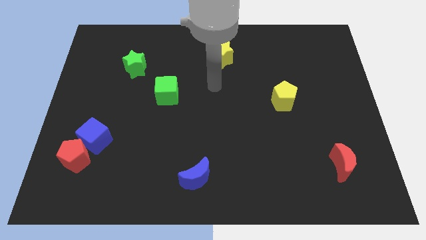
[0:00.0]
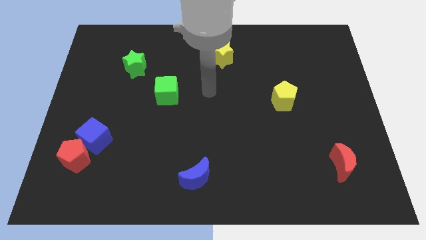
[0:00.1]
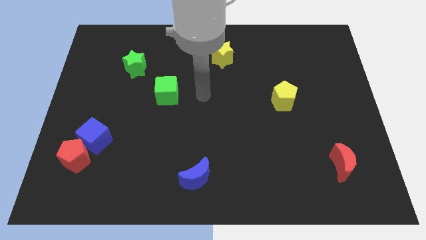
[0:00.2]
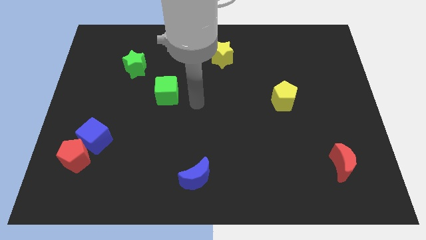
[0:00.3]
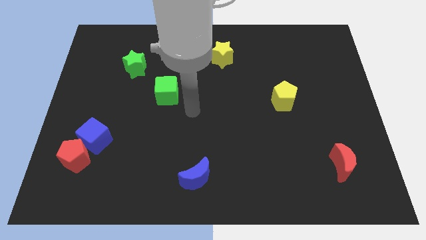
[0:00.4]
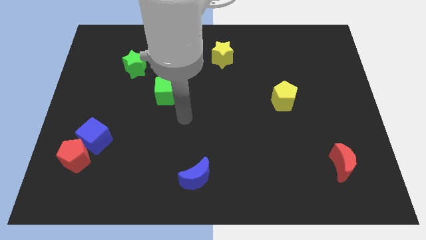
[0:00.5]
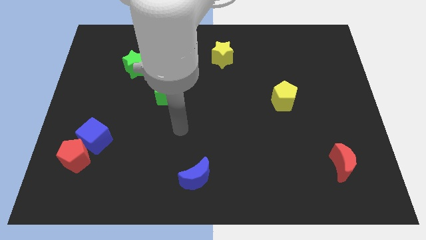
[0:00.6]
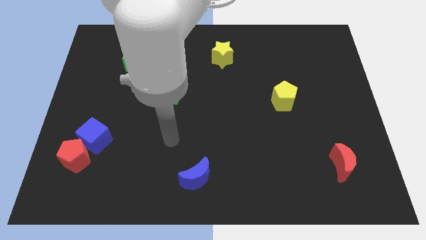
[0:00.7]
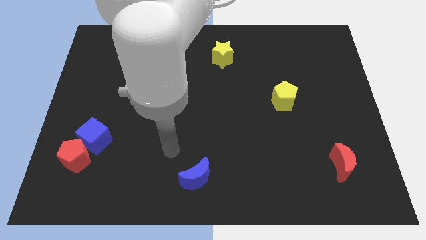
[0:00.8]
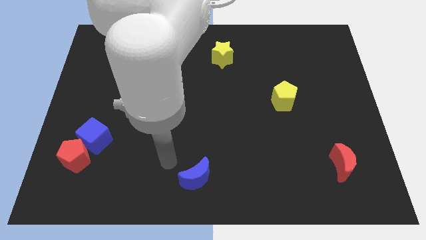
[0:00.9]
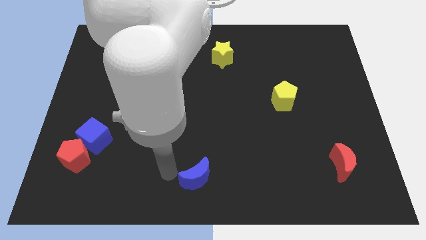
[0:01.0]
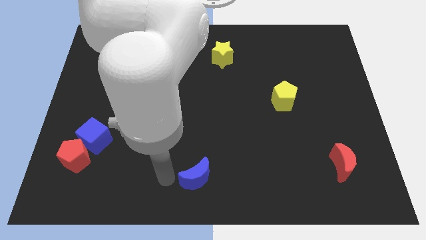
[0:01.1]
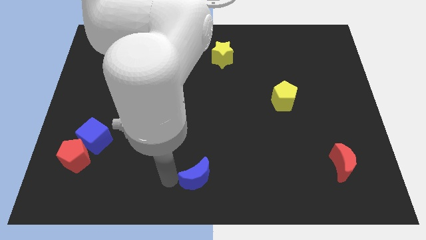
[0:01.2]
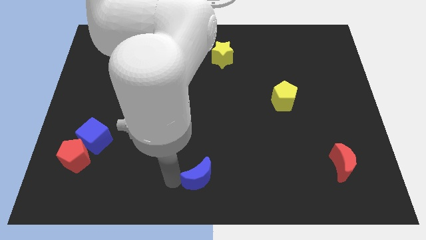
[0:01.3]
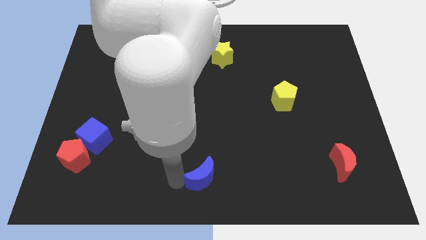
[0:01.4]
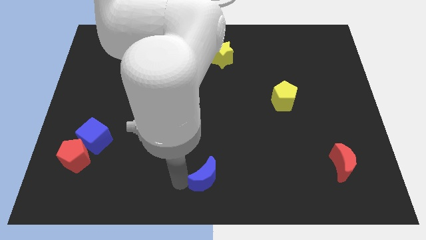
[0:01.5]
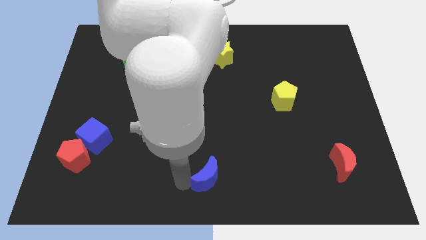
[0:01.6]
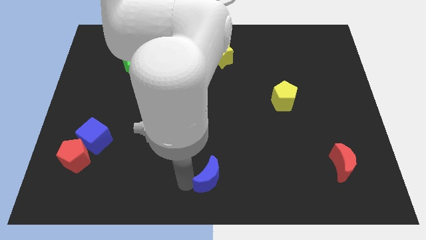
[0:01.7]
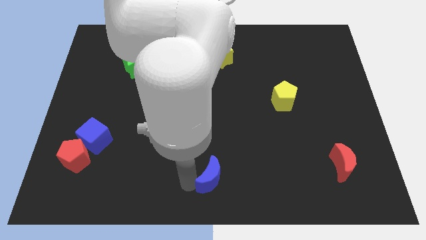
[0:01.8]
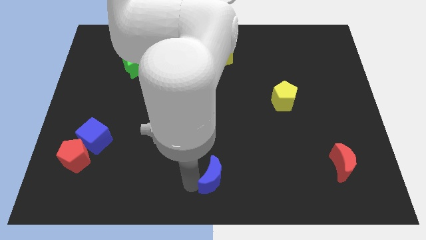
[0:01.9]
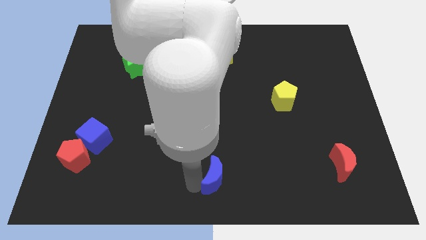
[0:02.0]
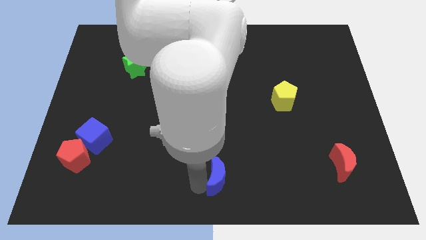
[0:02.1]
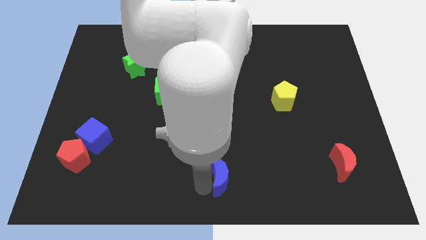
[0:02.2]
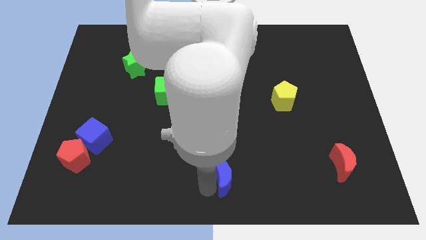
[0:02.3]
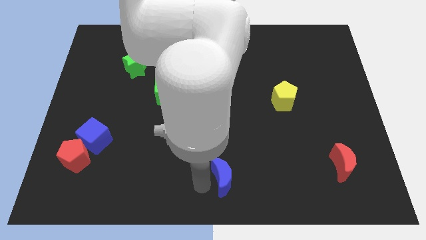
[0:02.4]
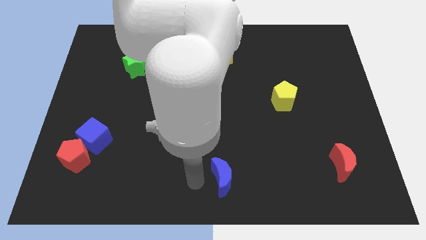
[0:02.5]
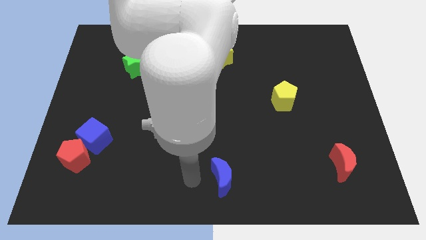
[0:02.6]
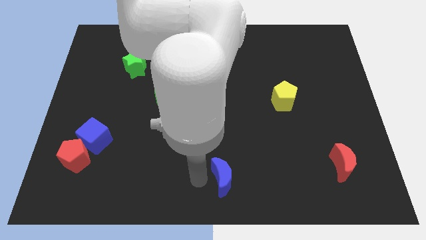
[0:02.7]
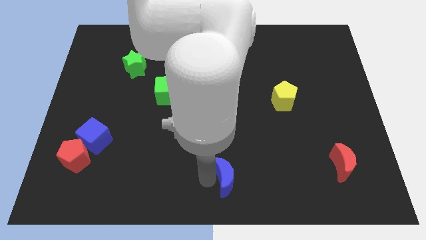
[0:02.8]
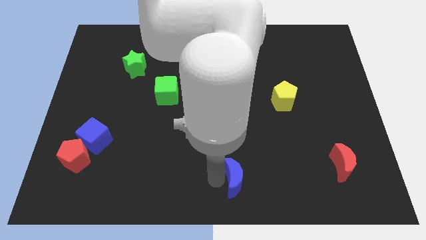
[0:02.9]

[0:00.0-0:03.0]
slightly slide the blue moon right

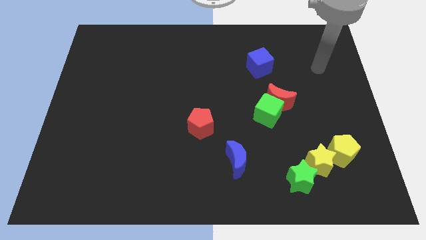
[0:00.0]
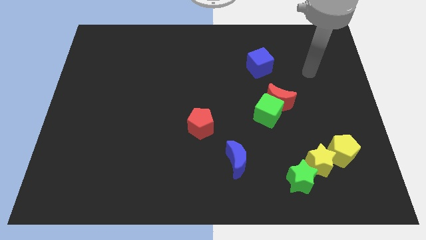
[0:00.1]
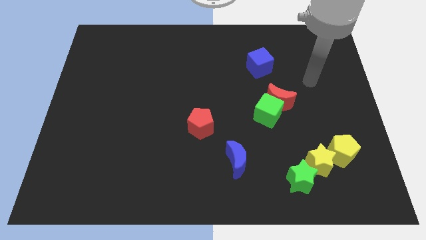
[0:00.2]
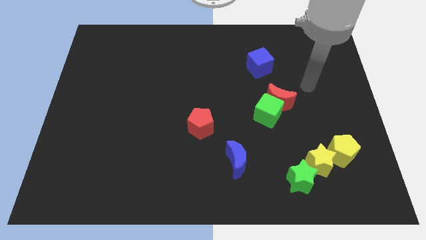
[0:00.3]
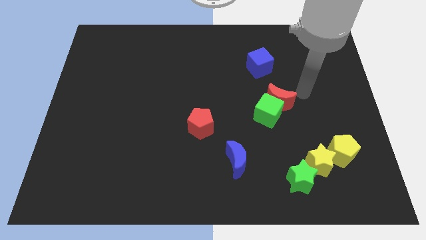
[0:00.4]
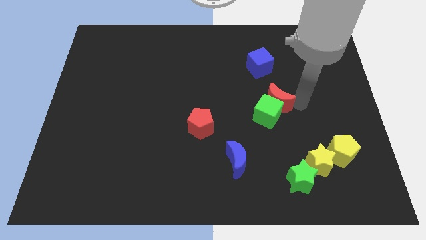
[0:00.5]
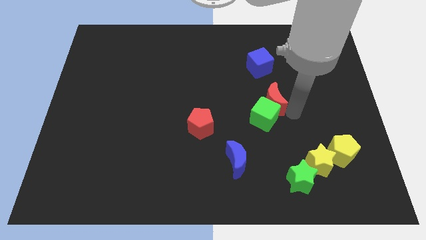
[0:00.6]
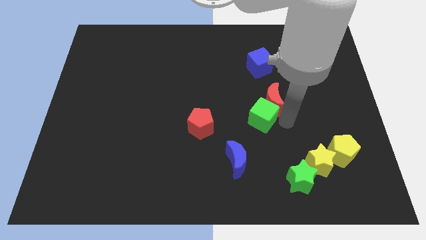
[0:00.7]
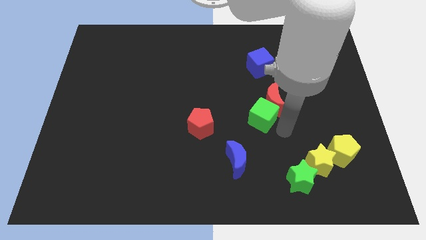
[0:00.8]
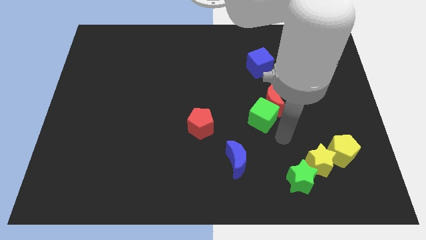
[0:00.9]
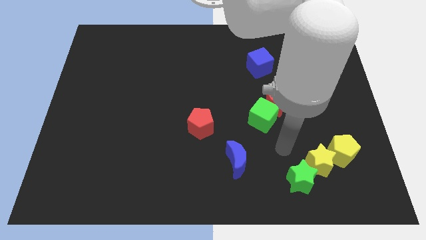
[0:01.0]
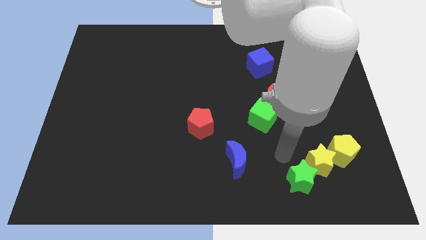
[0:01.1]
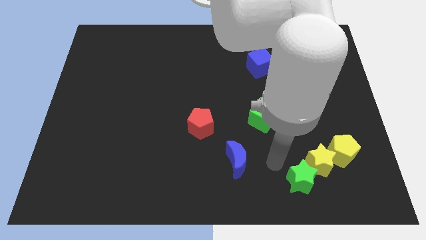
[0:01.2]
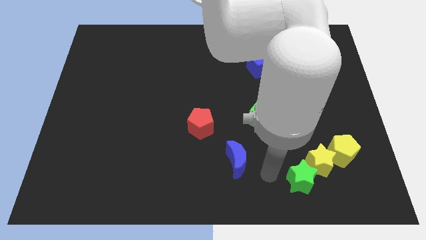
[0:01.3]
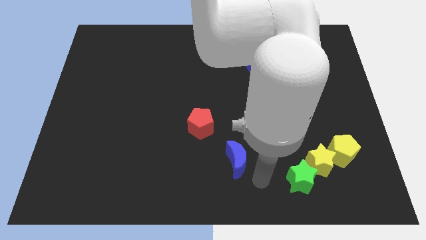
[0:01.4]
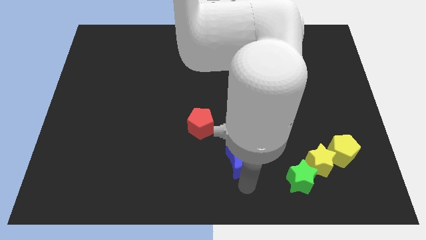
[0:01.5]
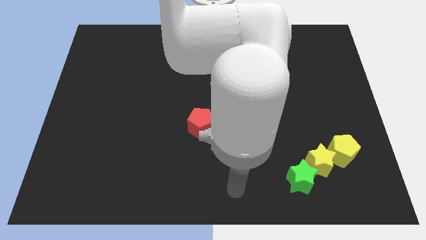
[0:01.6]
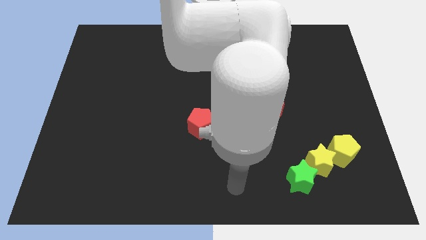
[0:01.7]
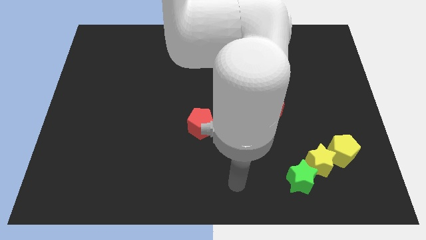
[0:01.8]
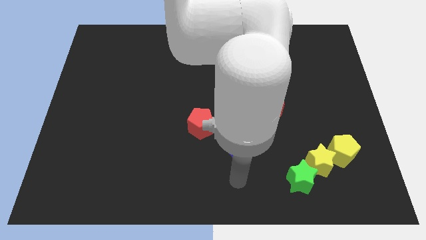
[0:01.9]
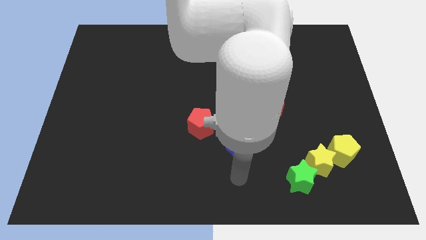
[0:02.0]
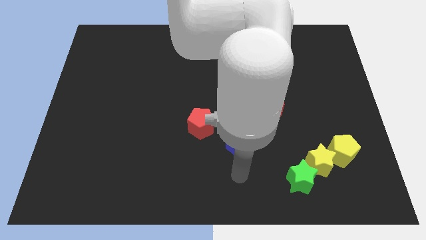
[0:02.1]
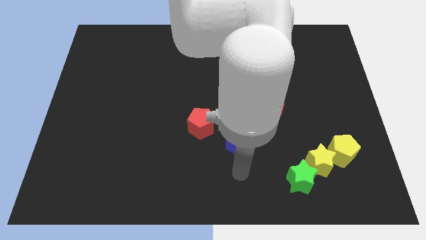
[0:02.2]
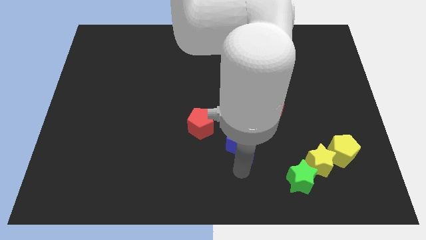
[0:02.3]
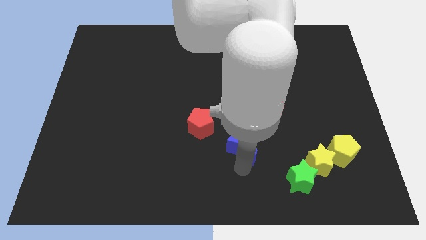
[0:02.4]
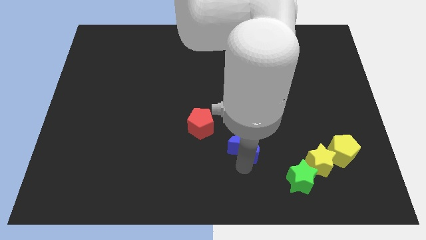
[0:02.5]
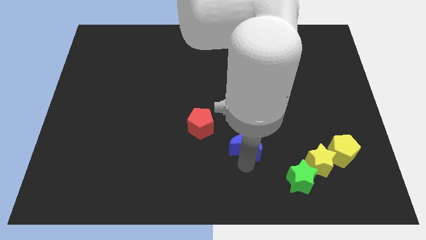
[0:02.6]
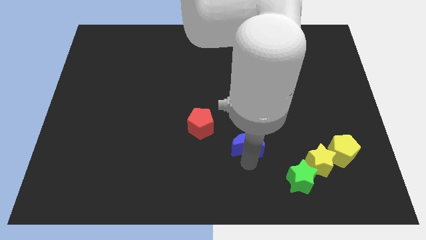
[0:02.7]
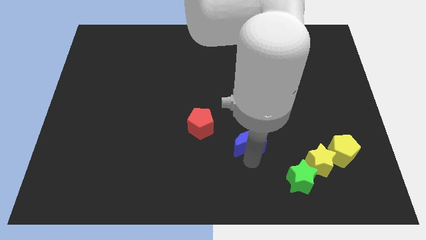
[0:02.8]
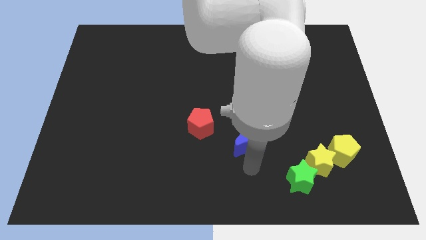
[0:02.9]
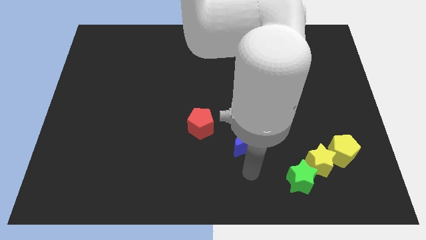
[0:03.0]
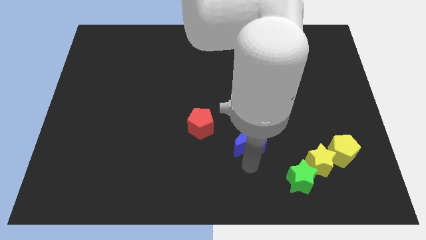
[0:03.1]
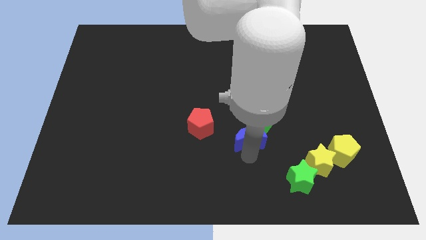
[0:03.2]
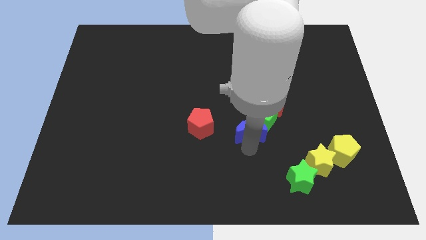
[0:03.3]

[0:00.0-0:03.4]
slide the blue moon somewhat upwards

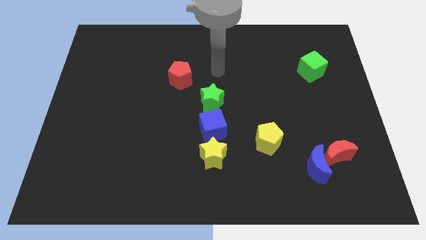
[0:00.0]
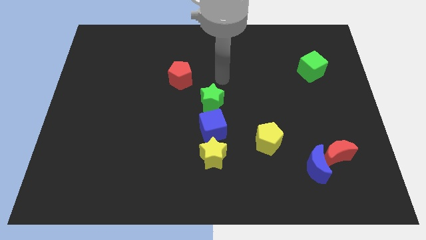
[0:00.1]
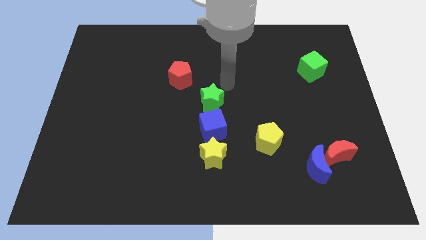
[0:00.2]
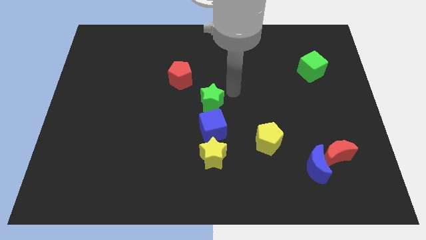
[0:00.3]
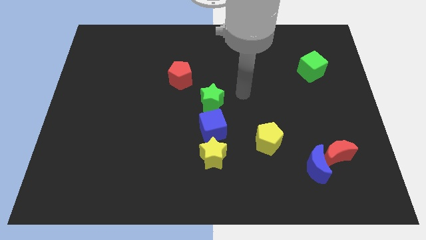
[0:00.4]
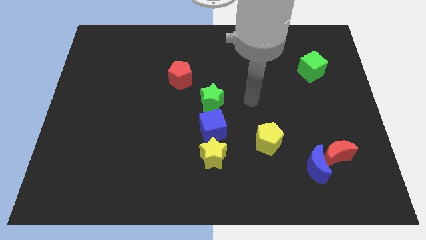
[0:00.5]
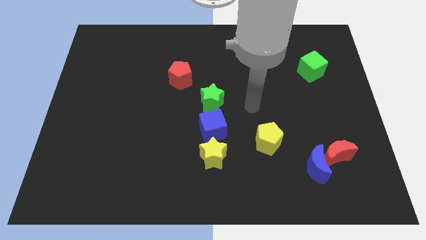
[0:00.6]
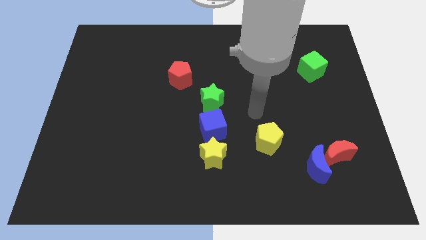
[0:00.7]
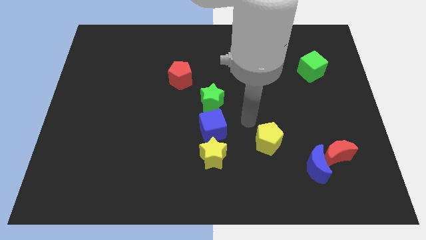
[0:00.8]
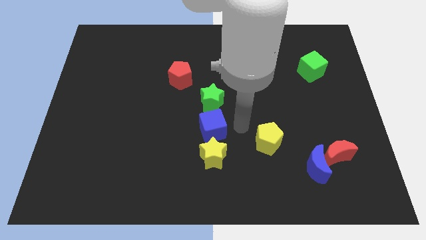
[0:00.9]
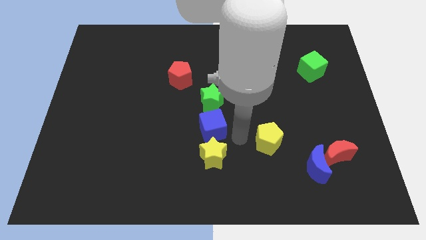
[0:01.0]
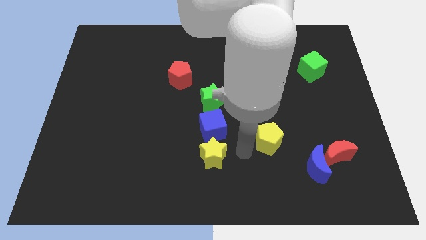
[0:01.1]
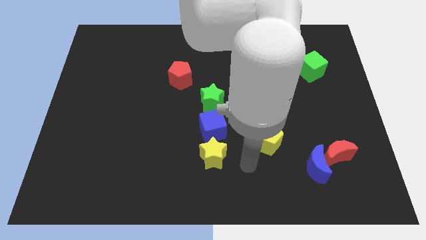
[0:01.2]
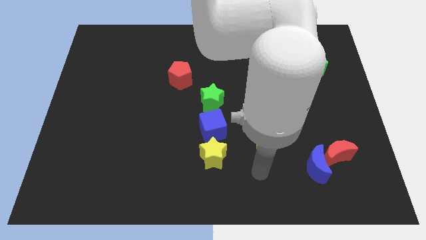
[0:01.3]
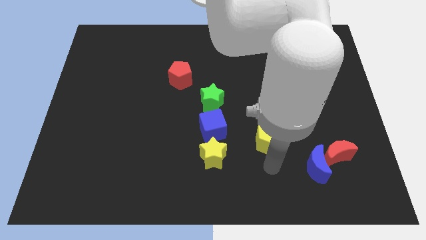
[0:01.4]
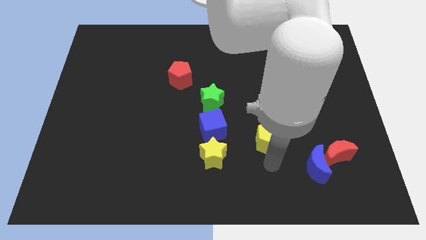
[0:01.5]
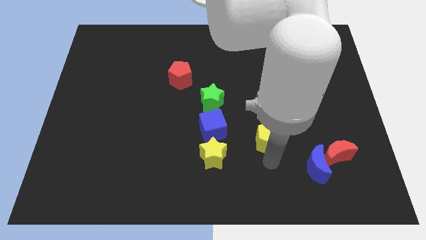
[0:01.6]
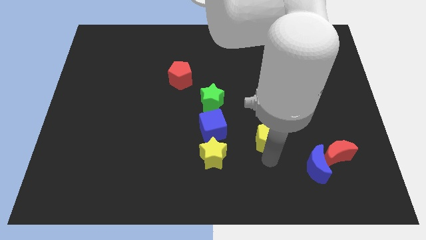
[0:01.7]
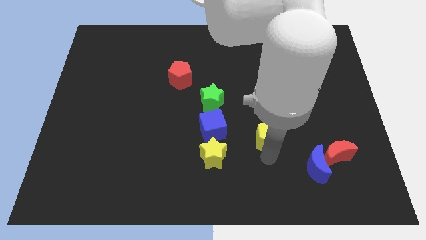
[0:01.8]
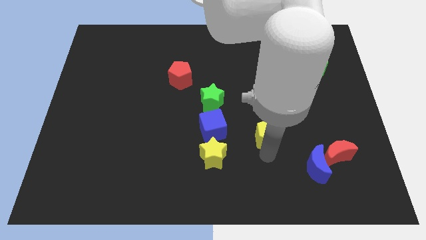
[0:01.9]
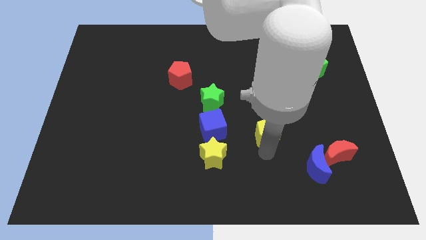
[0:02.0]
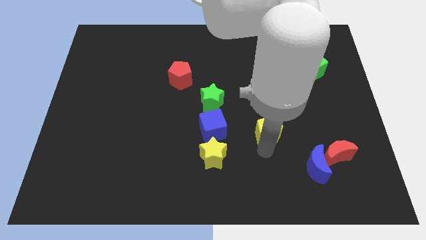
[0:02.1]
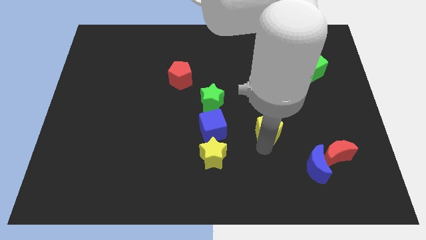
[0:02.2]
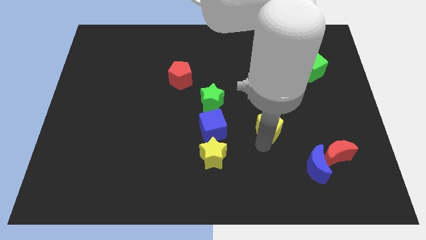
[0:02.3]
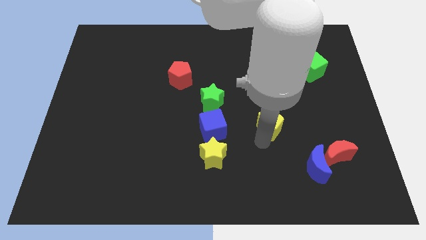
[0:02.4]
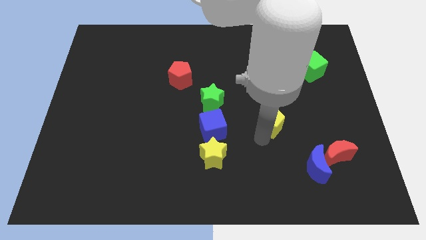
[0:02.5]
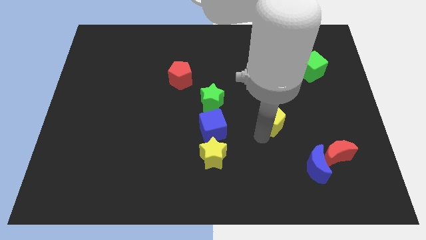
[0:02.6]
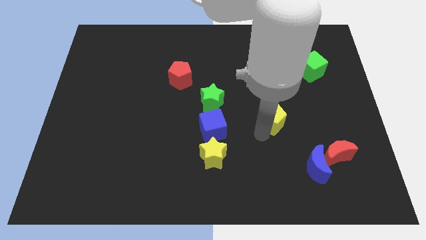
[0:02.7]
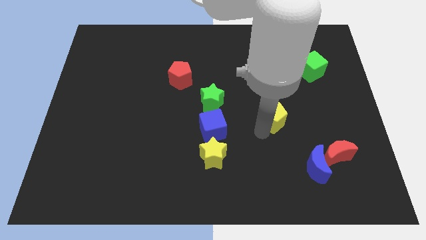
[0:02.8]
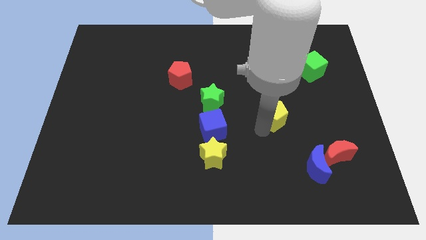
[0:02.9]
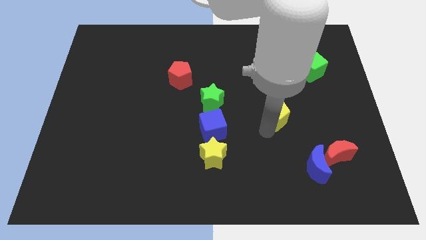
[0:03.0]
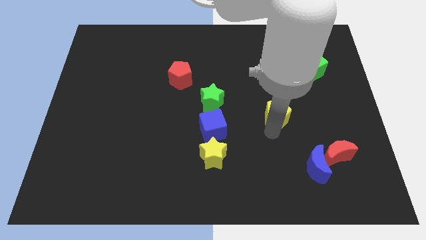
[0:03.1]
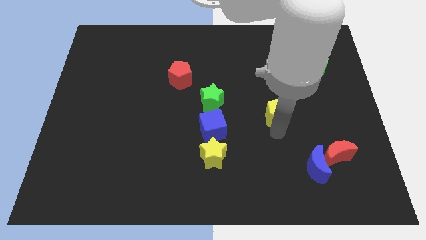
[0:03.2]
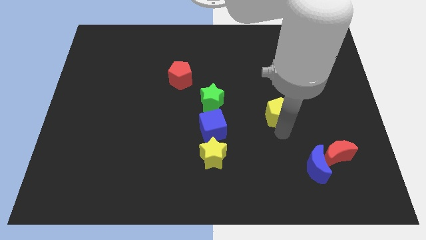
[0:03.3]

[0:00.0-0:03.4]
push the yellow pentagon upwards somewhat
